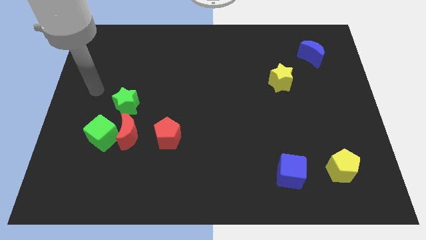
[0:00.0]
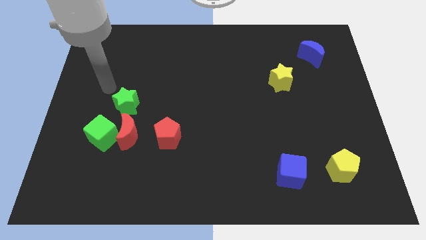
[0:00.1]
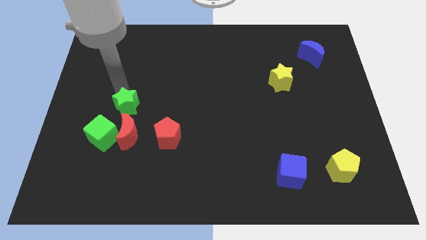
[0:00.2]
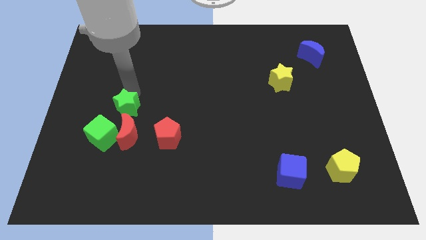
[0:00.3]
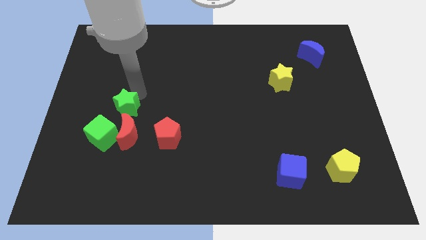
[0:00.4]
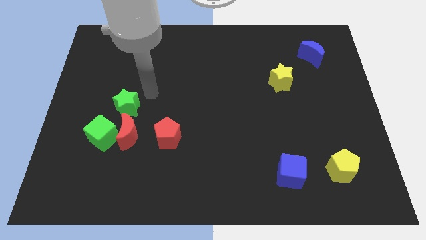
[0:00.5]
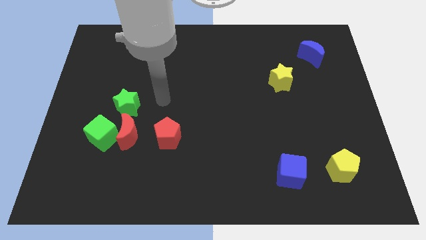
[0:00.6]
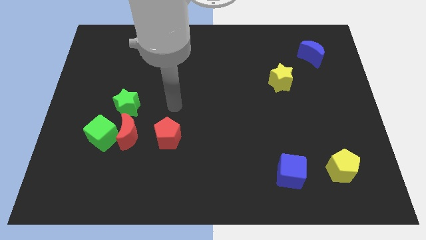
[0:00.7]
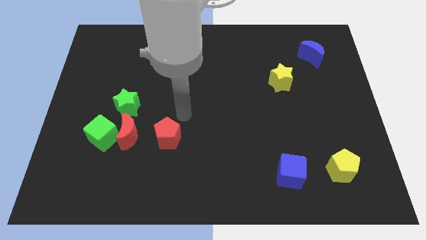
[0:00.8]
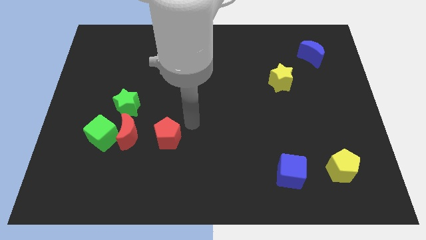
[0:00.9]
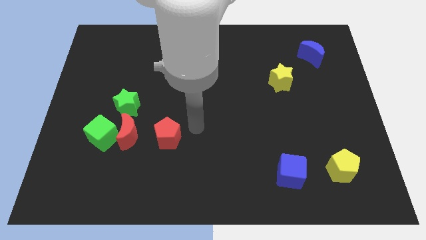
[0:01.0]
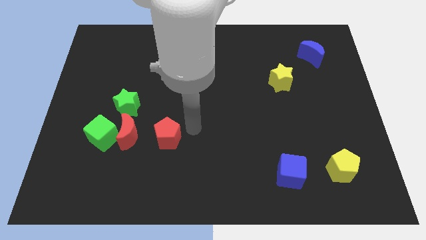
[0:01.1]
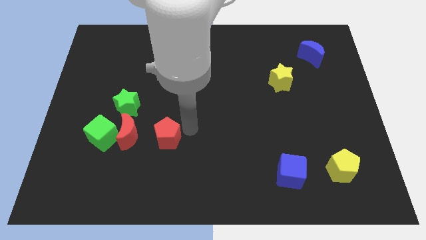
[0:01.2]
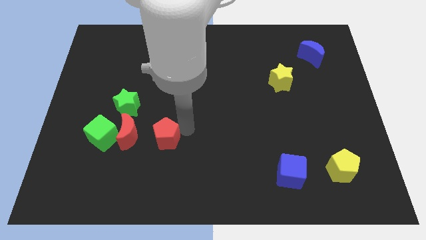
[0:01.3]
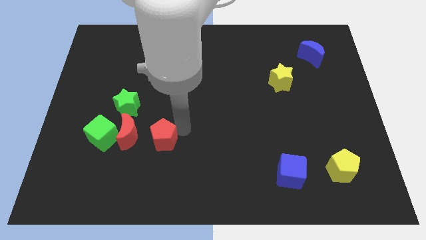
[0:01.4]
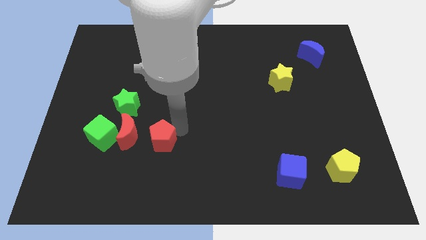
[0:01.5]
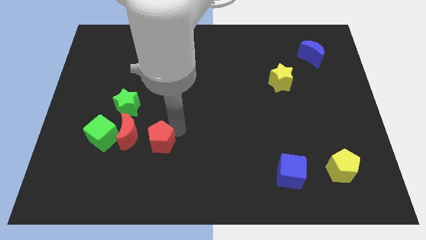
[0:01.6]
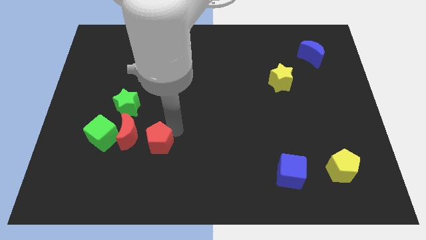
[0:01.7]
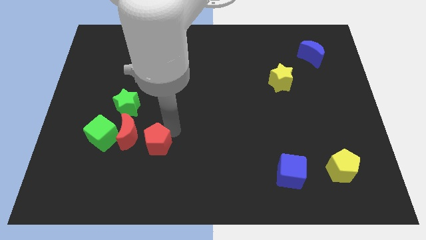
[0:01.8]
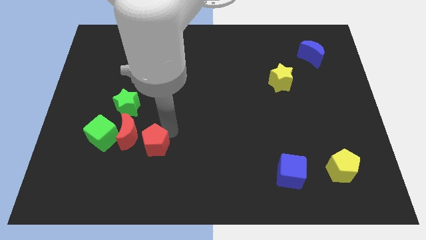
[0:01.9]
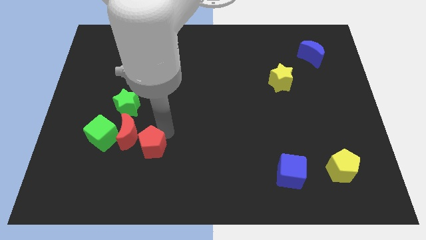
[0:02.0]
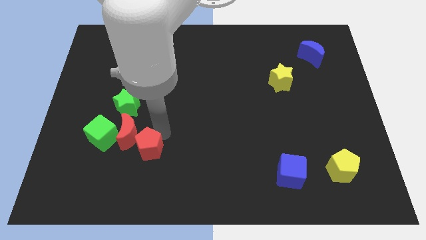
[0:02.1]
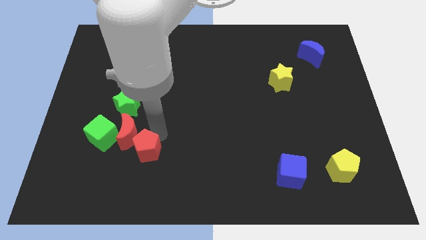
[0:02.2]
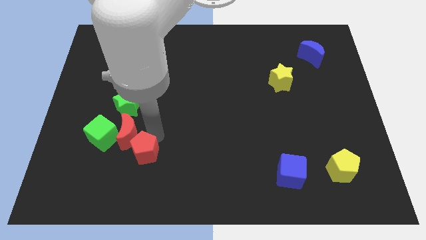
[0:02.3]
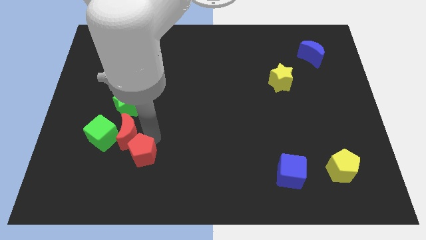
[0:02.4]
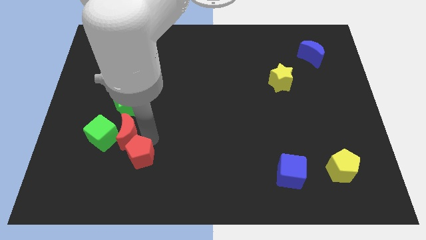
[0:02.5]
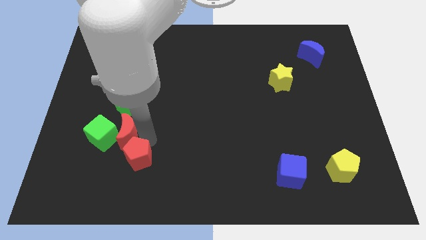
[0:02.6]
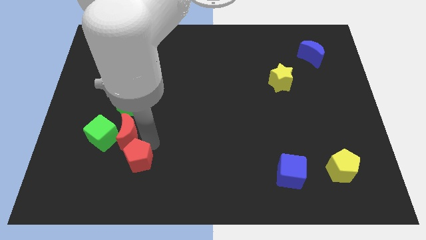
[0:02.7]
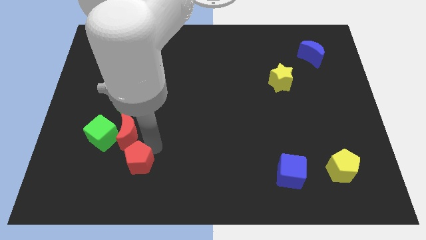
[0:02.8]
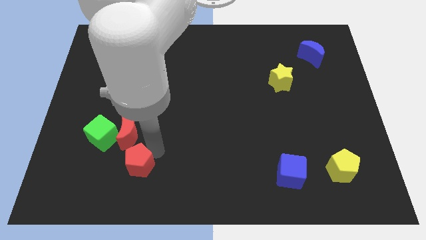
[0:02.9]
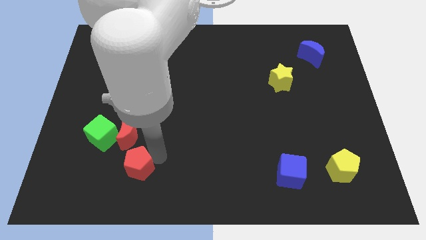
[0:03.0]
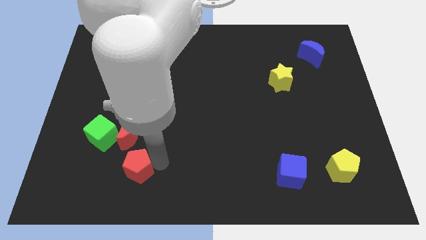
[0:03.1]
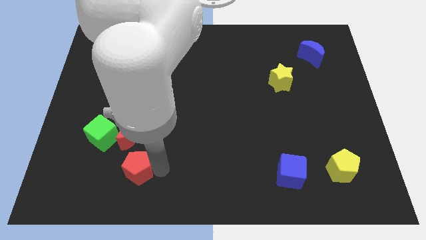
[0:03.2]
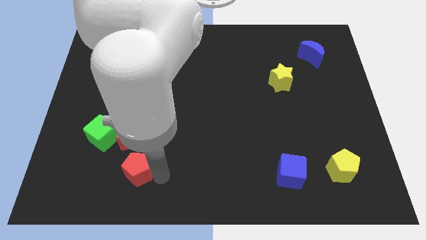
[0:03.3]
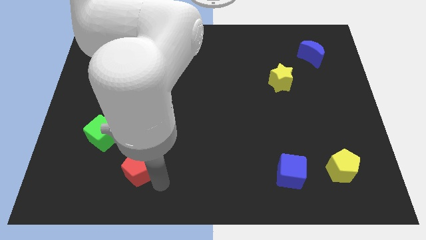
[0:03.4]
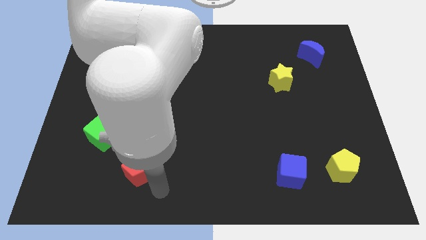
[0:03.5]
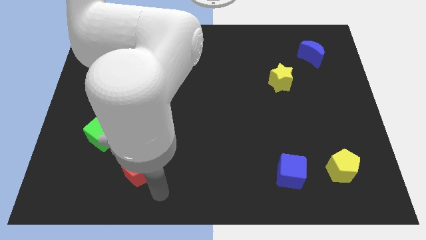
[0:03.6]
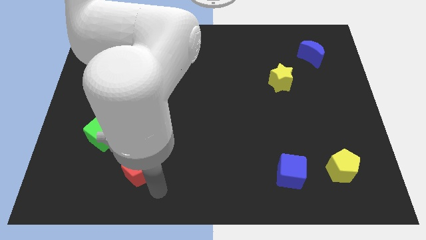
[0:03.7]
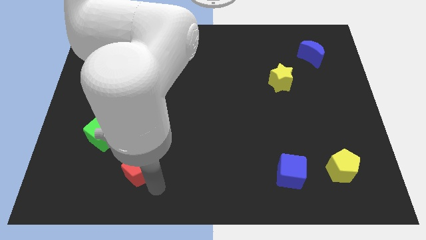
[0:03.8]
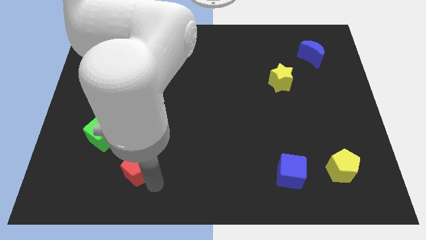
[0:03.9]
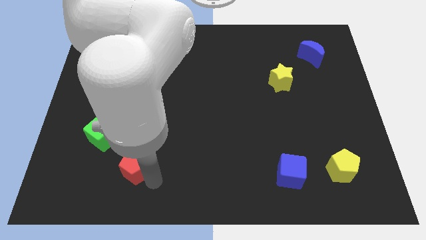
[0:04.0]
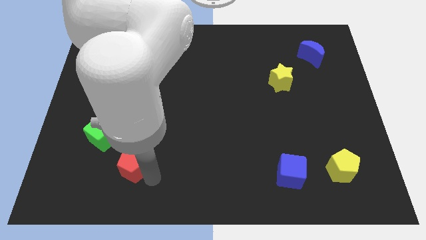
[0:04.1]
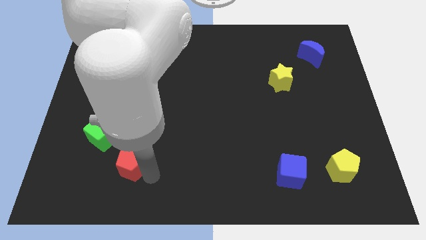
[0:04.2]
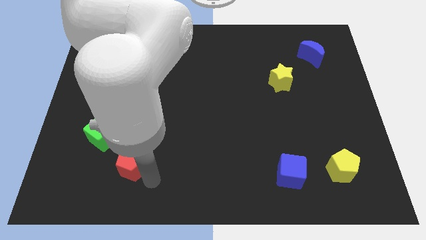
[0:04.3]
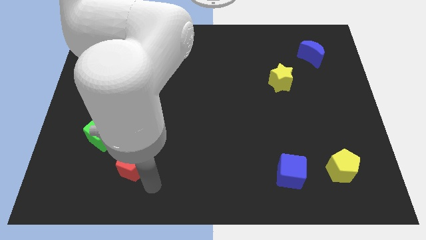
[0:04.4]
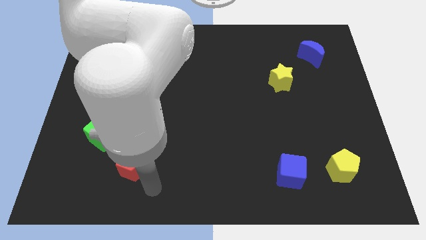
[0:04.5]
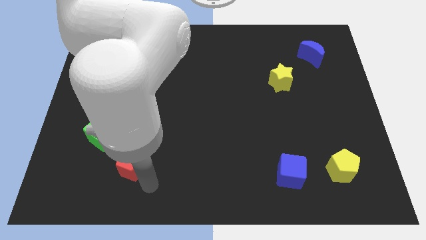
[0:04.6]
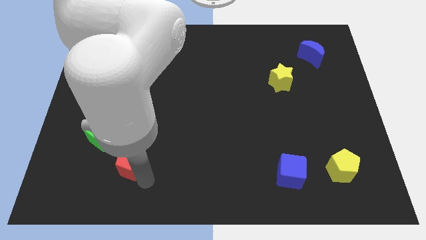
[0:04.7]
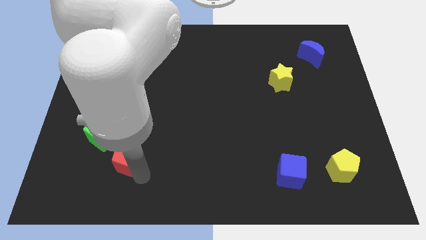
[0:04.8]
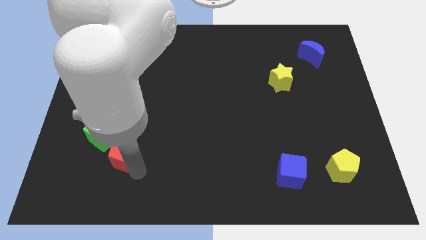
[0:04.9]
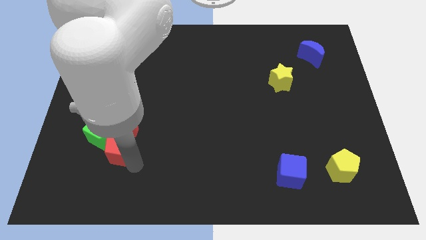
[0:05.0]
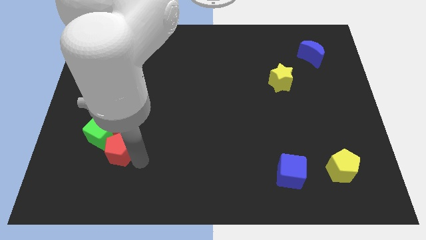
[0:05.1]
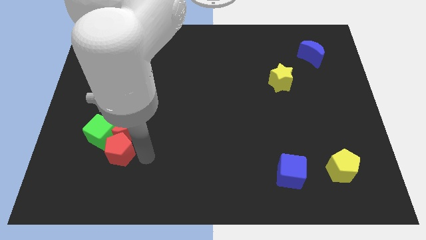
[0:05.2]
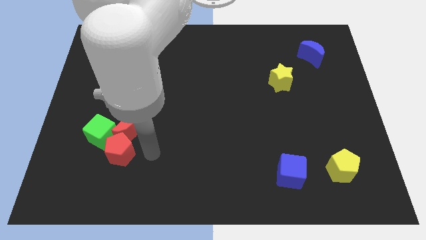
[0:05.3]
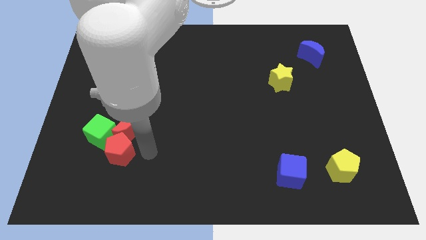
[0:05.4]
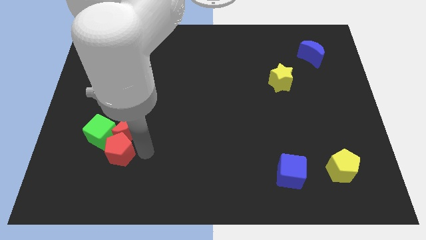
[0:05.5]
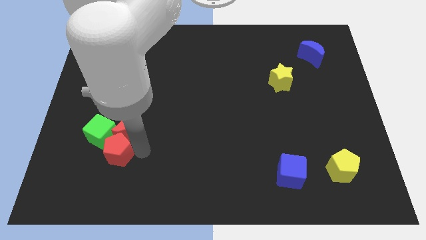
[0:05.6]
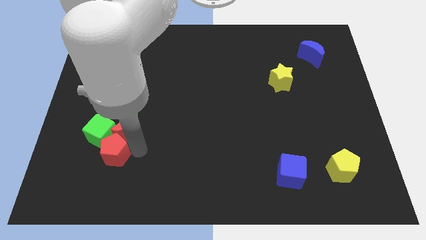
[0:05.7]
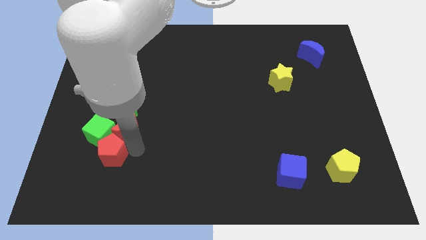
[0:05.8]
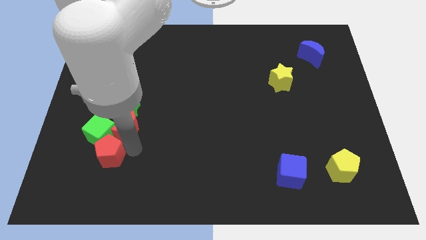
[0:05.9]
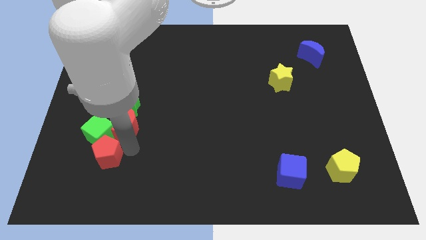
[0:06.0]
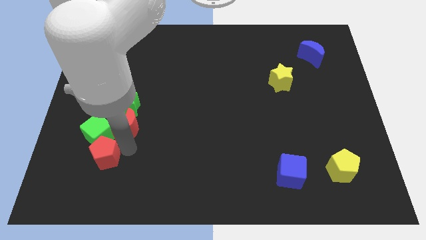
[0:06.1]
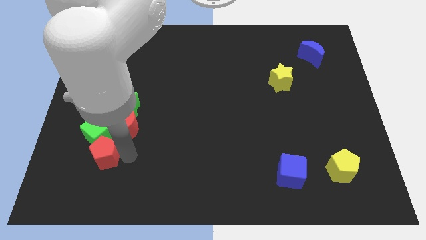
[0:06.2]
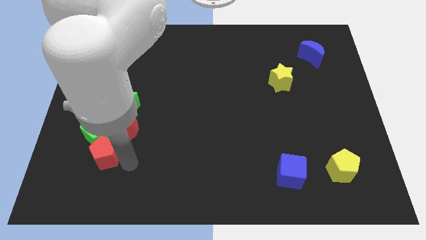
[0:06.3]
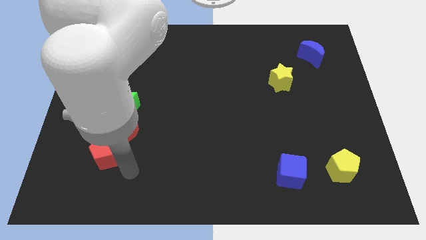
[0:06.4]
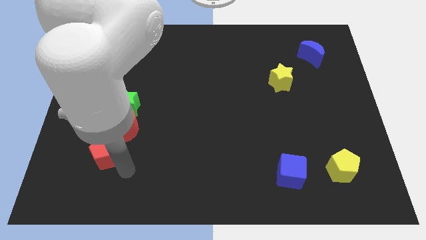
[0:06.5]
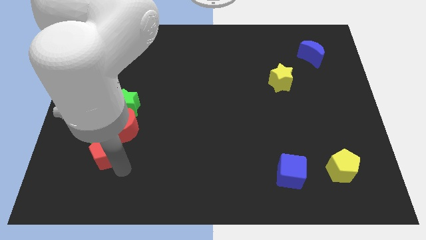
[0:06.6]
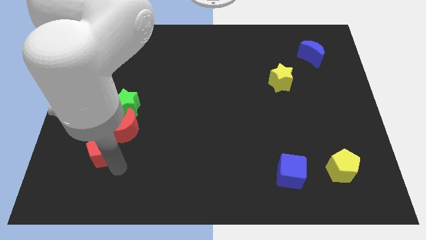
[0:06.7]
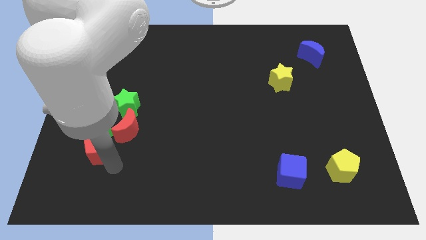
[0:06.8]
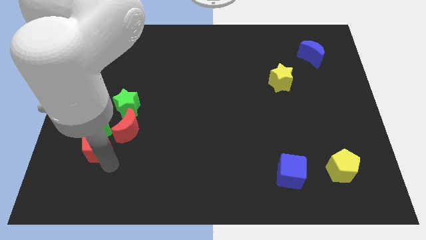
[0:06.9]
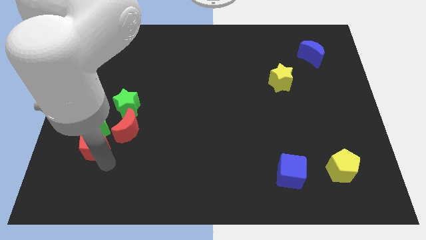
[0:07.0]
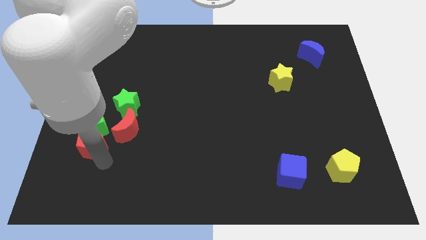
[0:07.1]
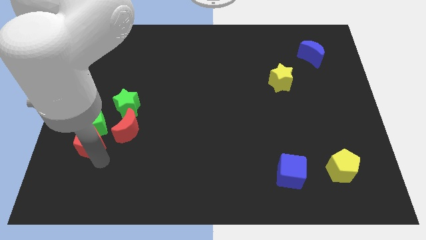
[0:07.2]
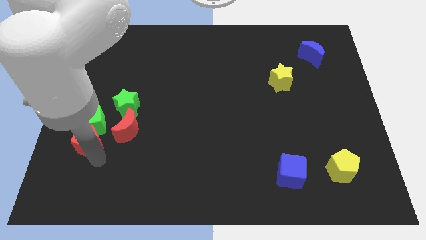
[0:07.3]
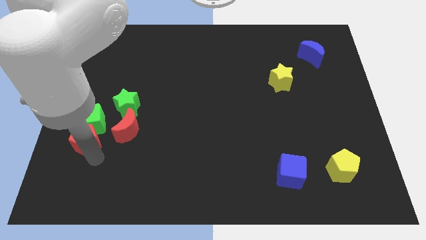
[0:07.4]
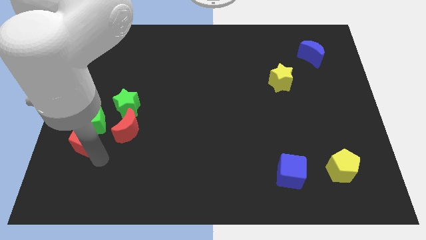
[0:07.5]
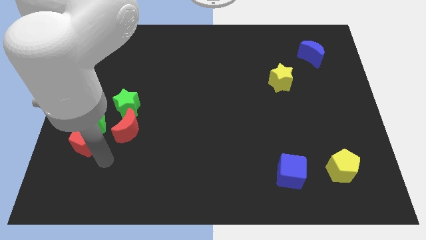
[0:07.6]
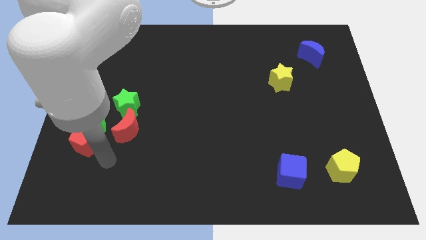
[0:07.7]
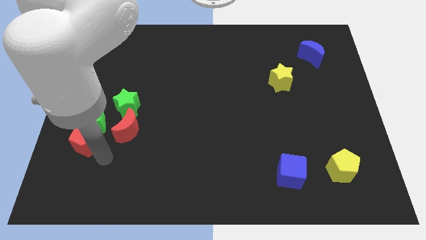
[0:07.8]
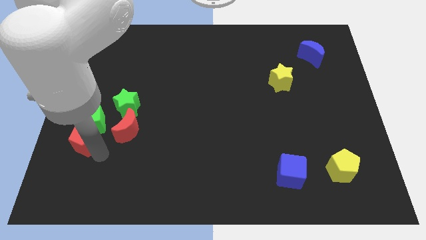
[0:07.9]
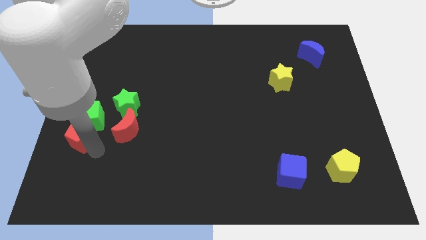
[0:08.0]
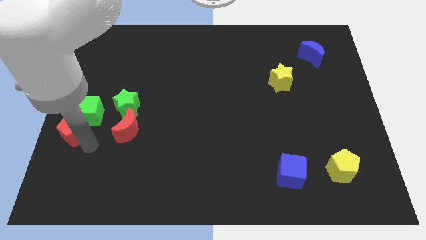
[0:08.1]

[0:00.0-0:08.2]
slide the red pentagon to the left side
